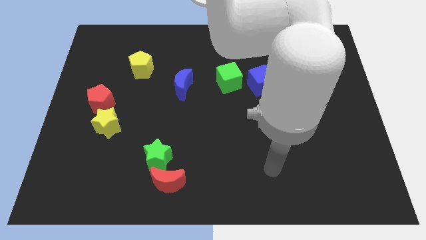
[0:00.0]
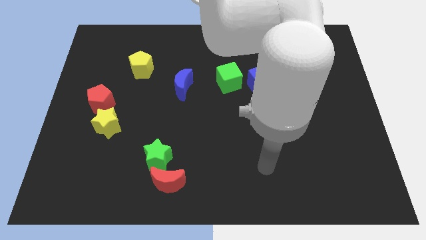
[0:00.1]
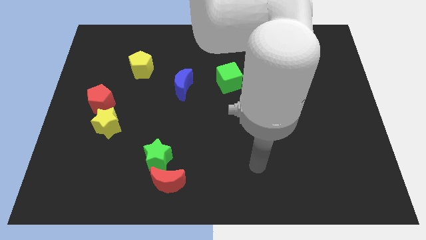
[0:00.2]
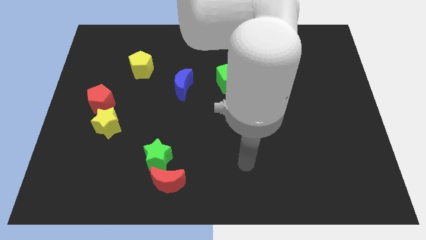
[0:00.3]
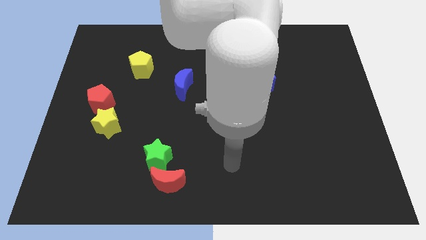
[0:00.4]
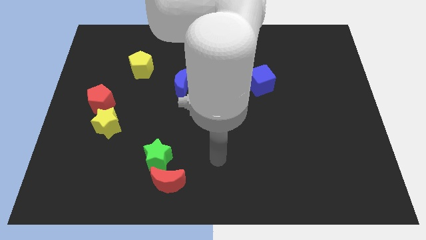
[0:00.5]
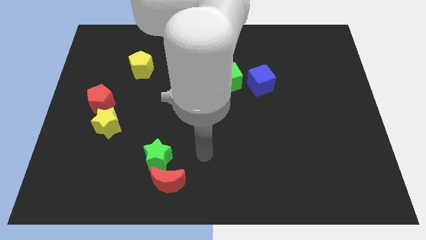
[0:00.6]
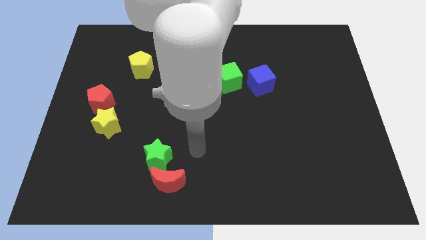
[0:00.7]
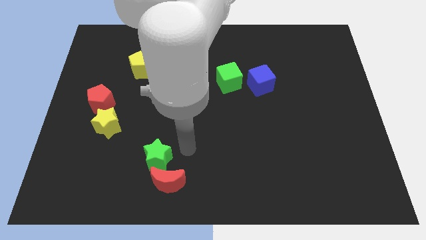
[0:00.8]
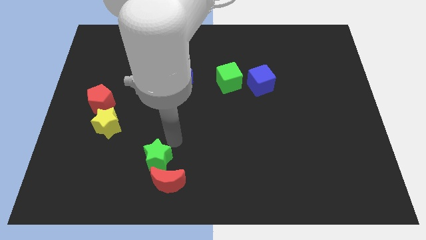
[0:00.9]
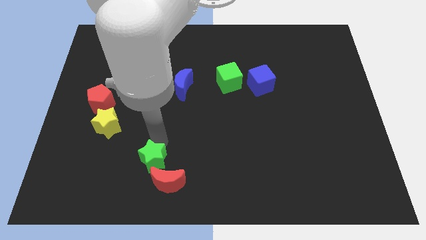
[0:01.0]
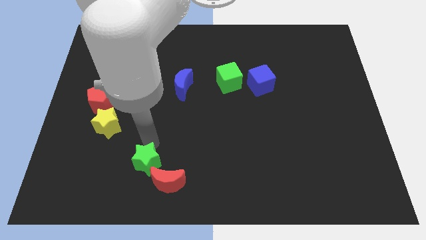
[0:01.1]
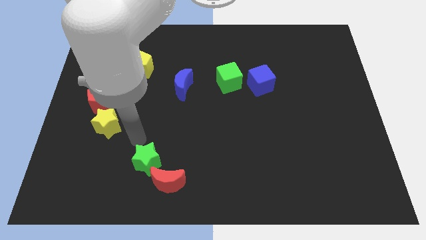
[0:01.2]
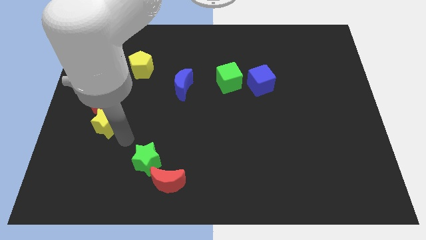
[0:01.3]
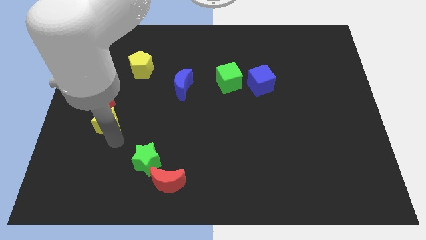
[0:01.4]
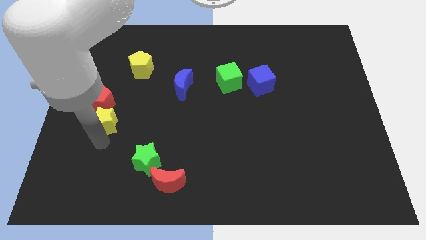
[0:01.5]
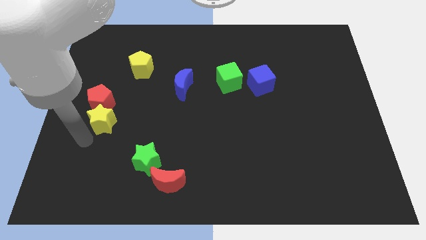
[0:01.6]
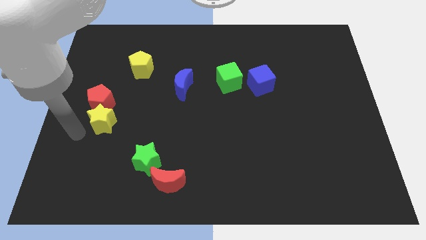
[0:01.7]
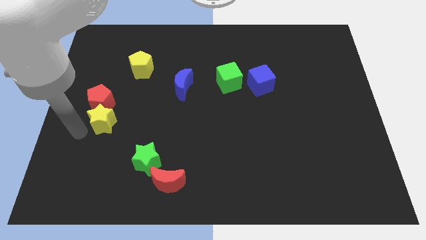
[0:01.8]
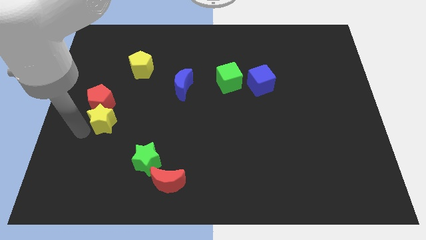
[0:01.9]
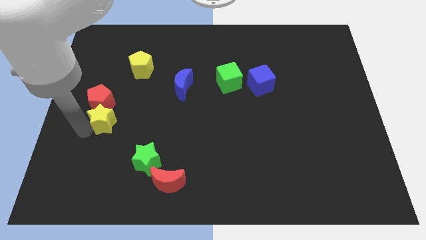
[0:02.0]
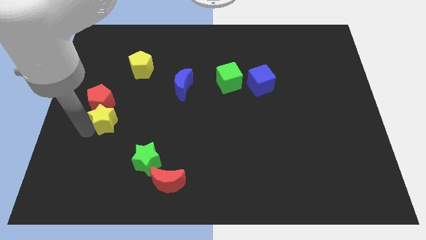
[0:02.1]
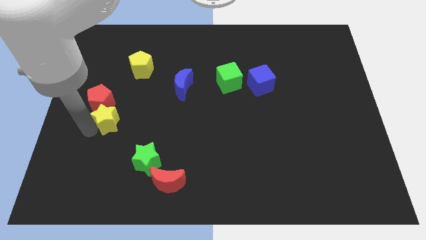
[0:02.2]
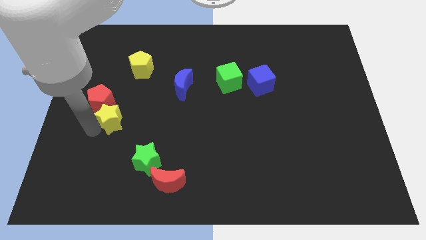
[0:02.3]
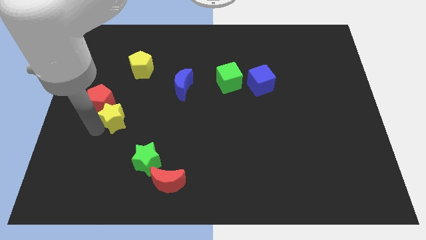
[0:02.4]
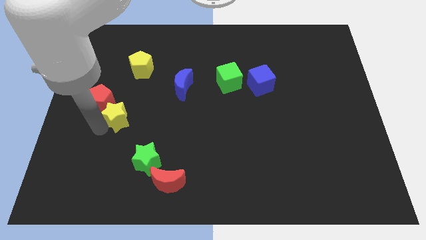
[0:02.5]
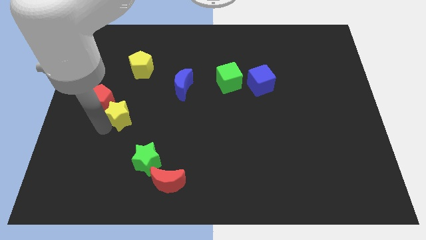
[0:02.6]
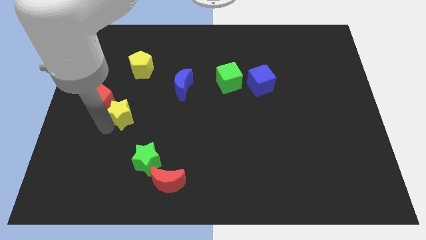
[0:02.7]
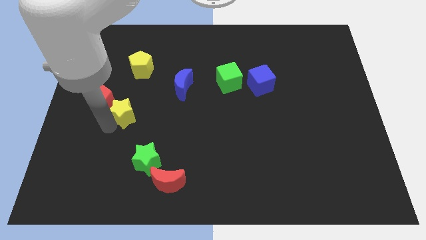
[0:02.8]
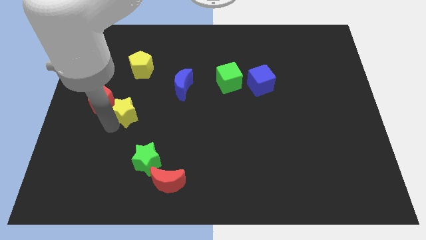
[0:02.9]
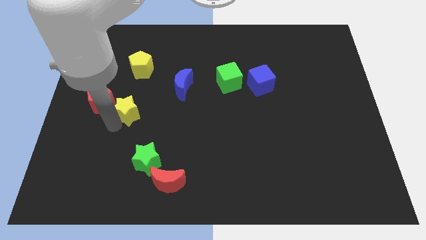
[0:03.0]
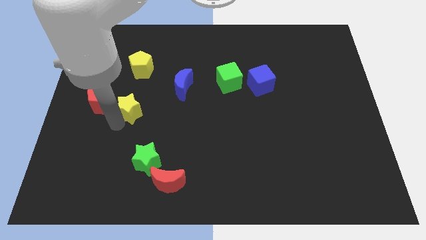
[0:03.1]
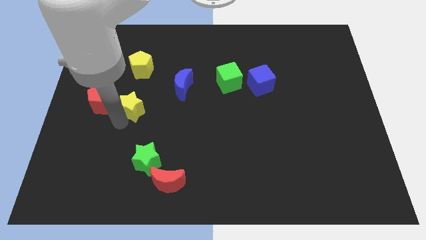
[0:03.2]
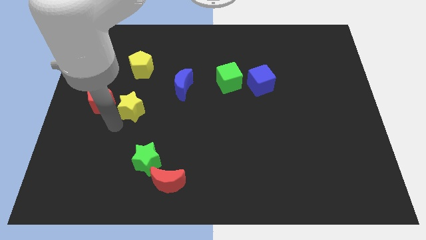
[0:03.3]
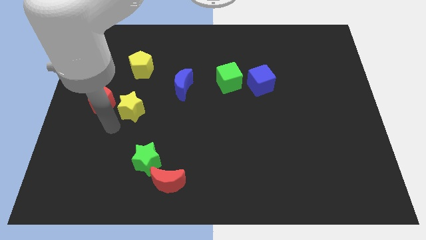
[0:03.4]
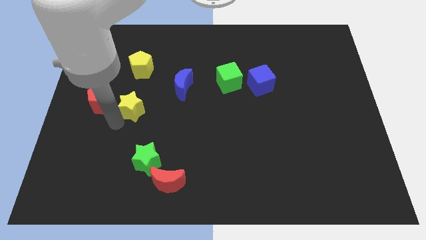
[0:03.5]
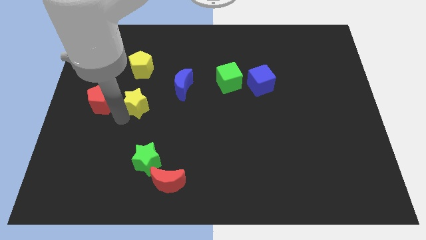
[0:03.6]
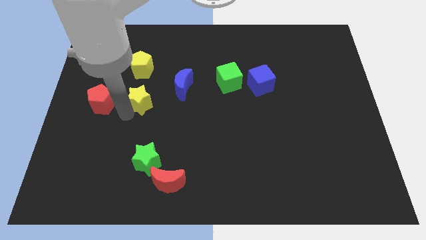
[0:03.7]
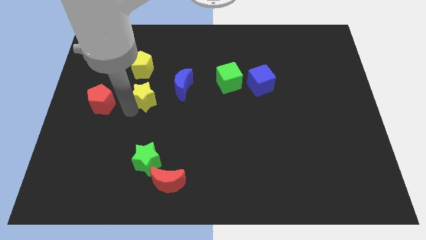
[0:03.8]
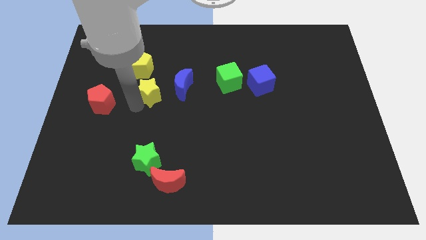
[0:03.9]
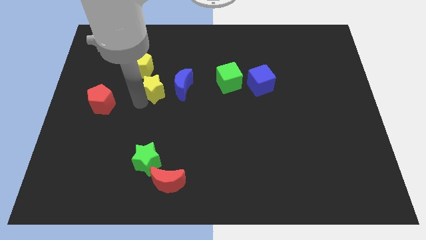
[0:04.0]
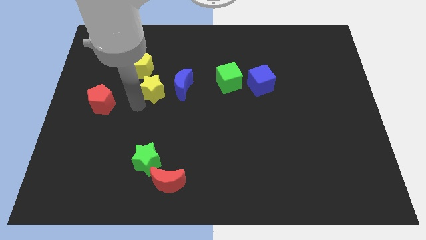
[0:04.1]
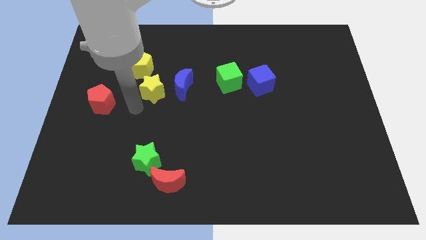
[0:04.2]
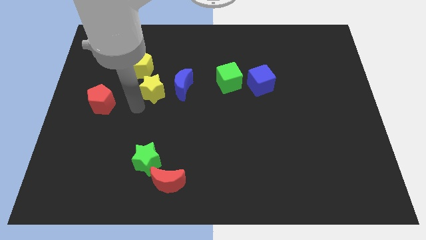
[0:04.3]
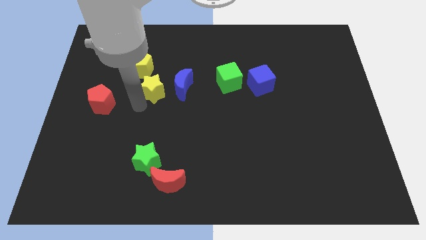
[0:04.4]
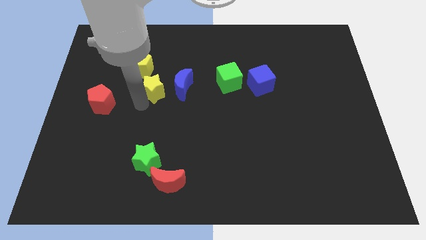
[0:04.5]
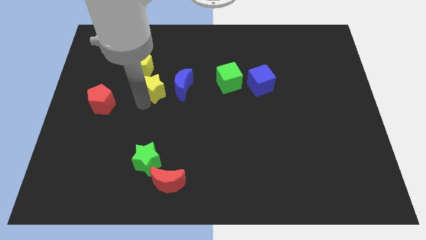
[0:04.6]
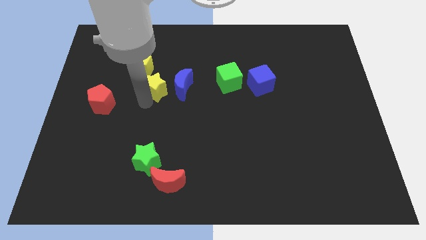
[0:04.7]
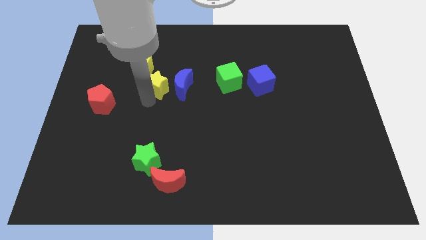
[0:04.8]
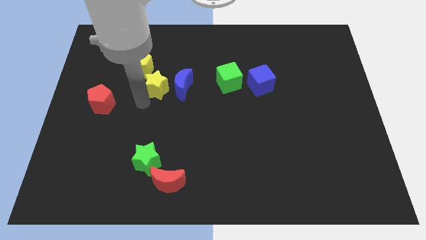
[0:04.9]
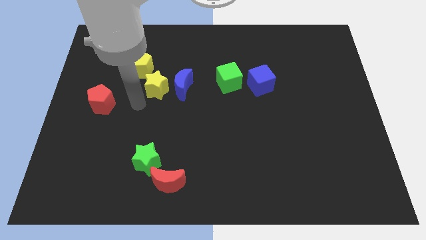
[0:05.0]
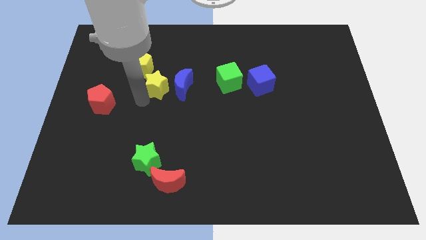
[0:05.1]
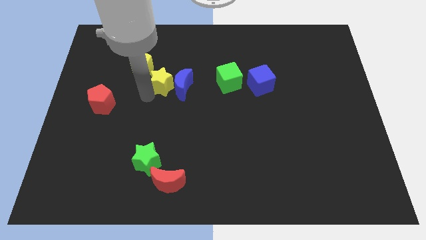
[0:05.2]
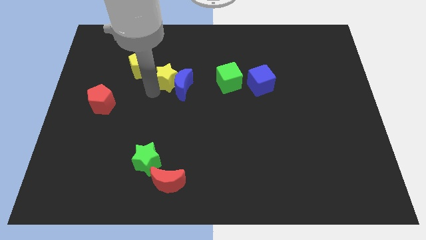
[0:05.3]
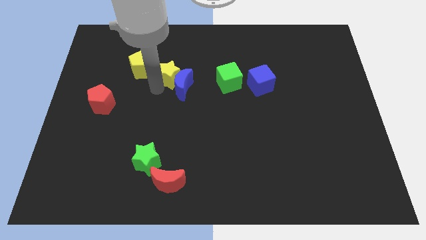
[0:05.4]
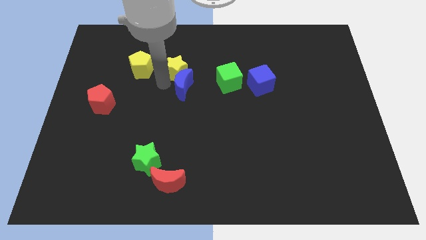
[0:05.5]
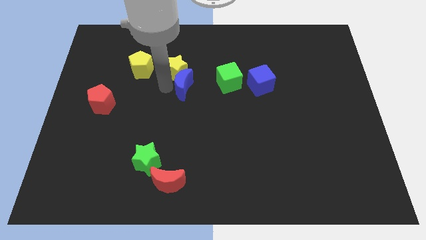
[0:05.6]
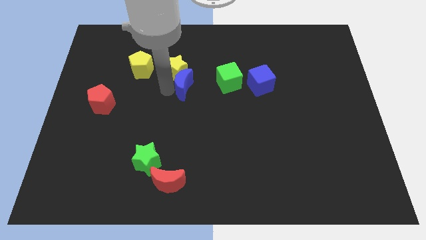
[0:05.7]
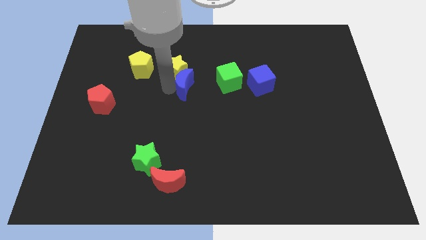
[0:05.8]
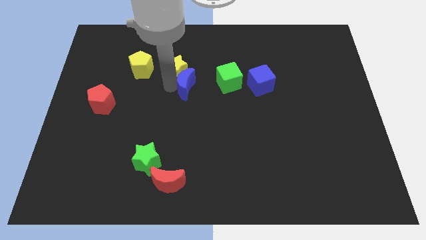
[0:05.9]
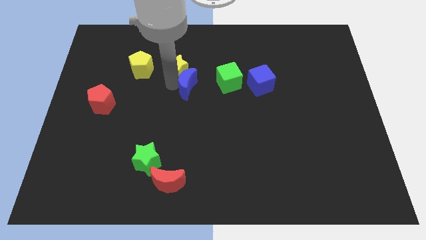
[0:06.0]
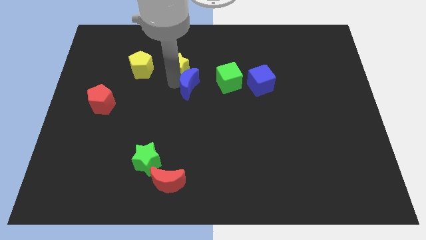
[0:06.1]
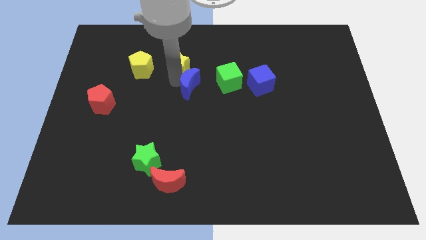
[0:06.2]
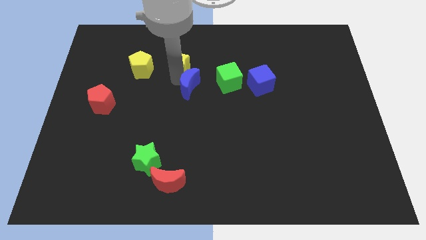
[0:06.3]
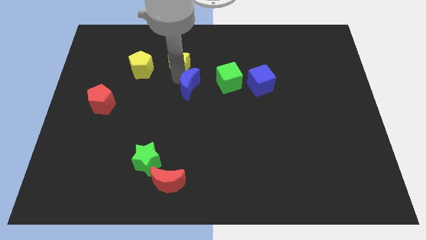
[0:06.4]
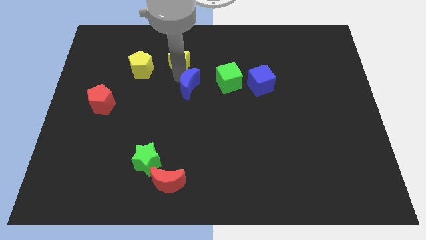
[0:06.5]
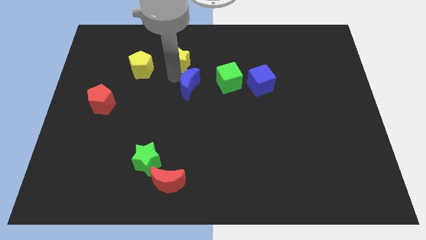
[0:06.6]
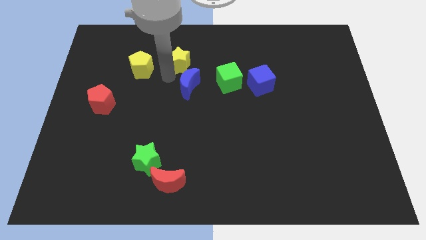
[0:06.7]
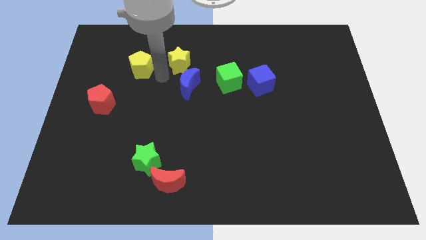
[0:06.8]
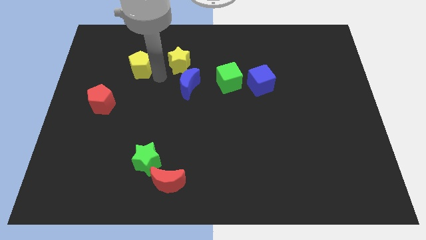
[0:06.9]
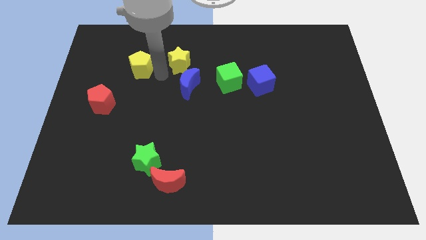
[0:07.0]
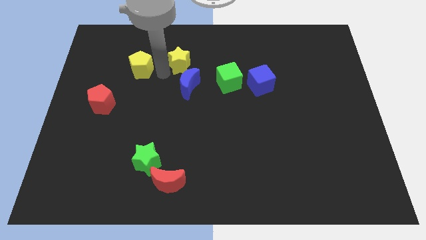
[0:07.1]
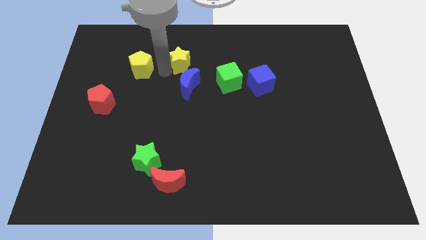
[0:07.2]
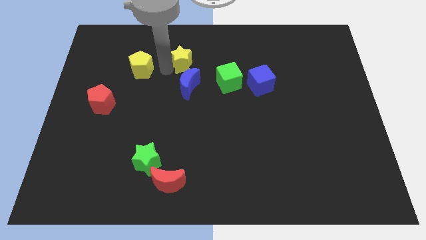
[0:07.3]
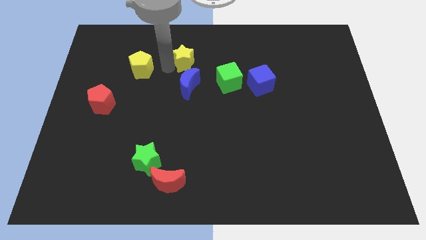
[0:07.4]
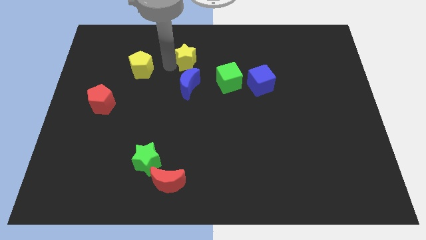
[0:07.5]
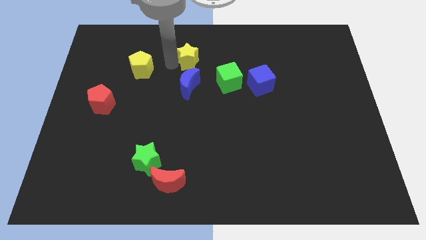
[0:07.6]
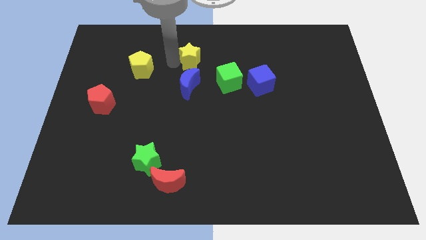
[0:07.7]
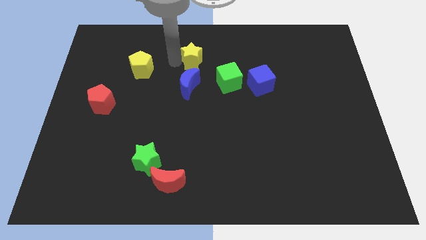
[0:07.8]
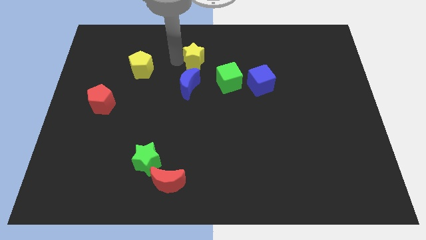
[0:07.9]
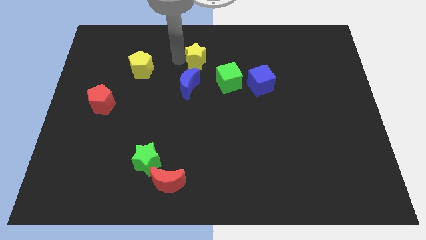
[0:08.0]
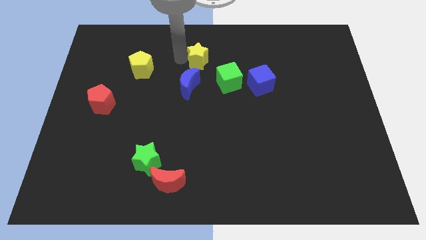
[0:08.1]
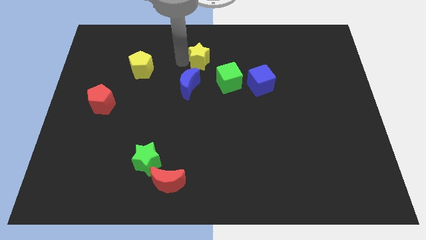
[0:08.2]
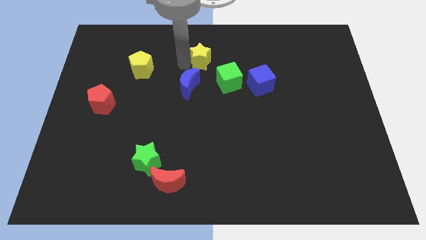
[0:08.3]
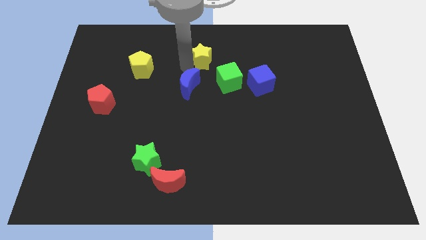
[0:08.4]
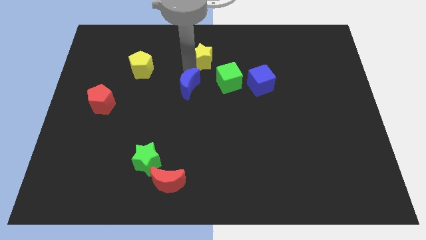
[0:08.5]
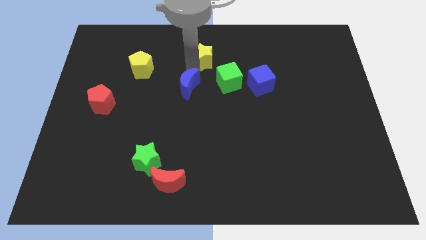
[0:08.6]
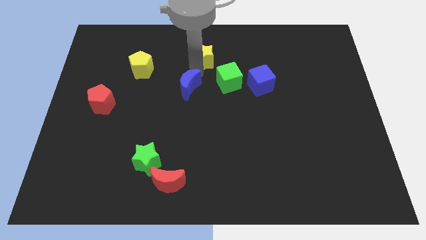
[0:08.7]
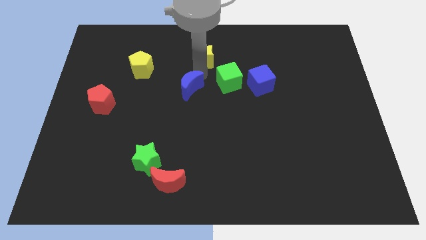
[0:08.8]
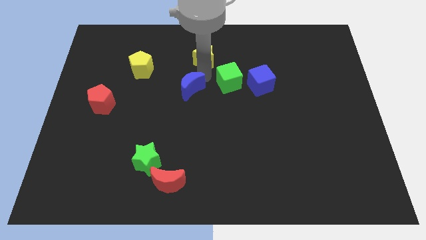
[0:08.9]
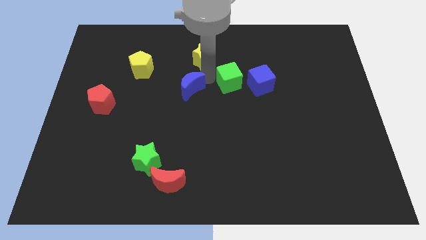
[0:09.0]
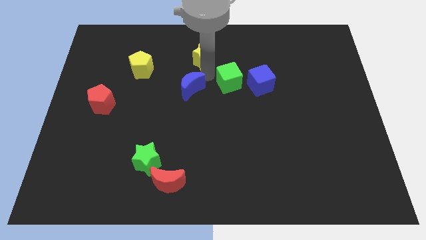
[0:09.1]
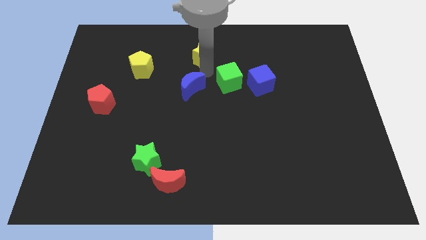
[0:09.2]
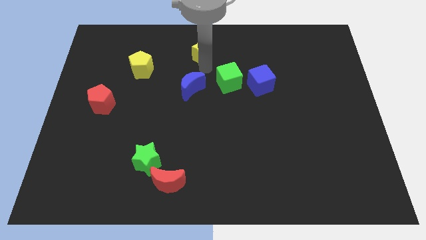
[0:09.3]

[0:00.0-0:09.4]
move the yellow star to the top
